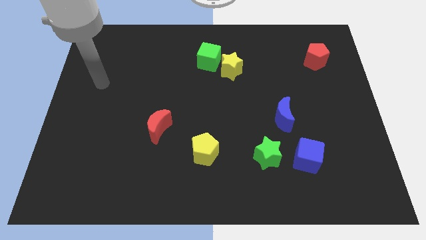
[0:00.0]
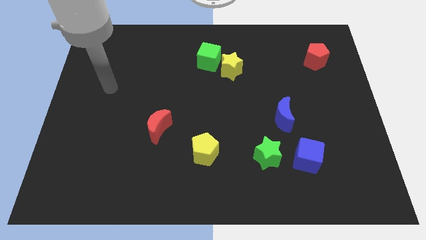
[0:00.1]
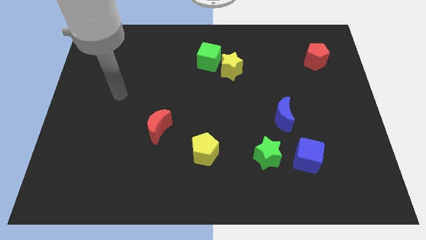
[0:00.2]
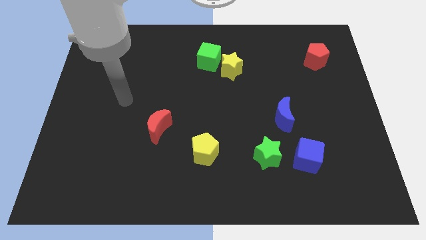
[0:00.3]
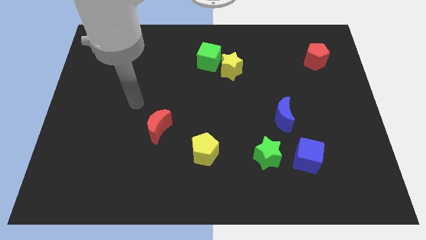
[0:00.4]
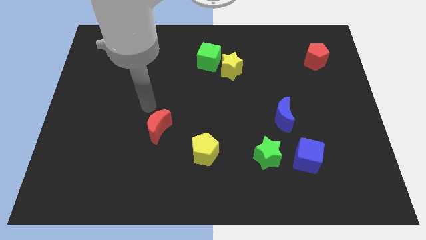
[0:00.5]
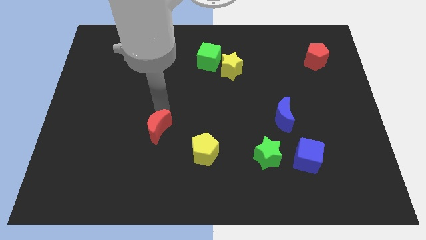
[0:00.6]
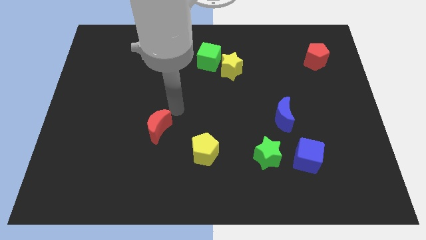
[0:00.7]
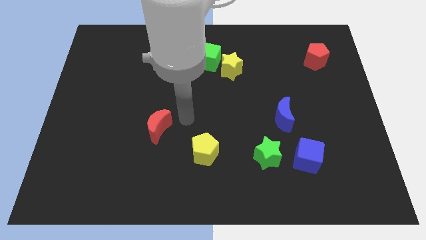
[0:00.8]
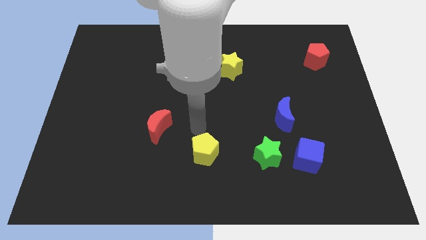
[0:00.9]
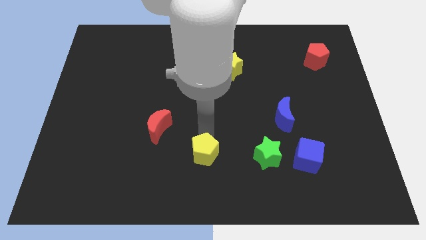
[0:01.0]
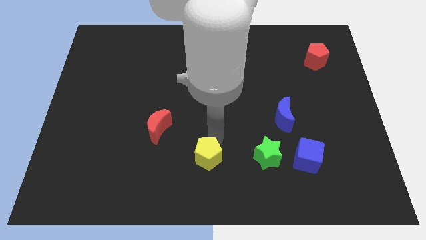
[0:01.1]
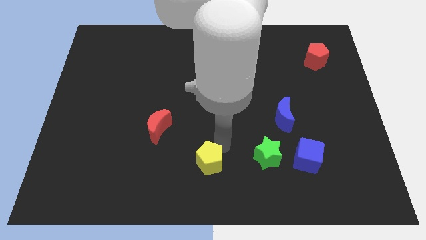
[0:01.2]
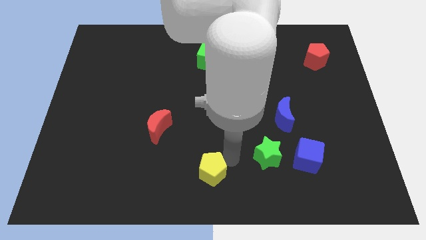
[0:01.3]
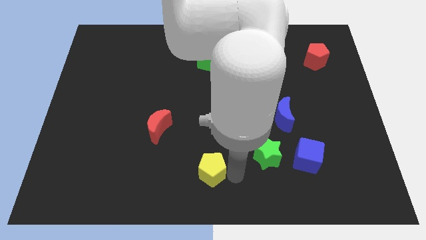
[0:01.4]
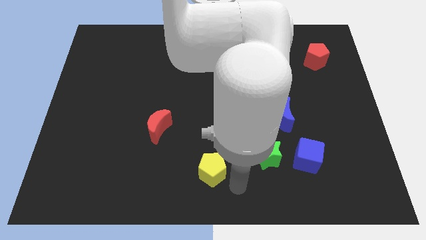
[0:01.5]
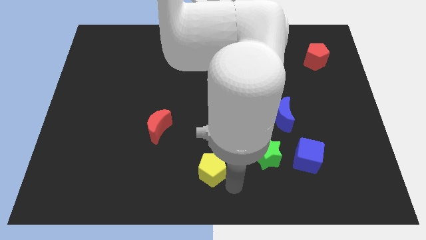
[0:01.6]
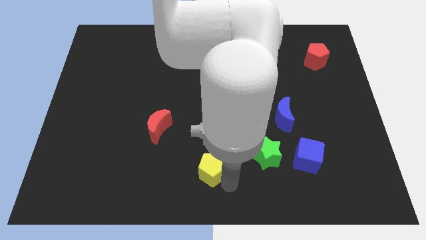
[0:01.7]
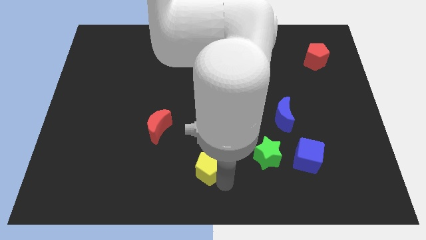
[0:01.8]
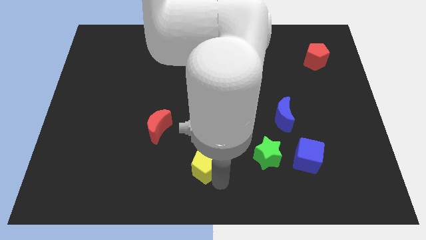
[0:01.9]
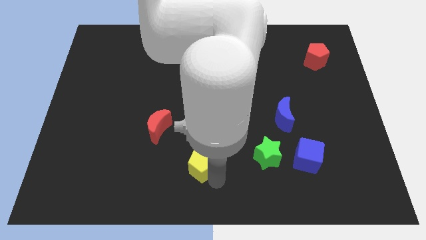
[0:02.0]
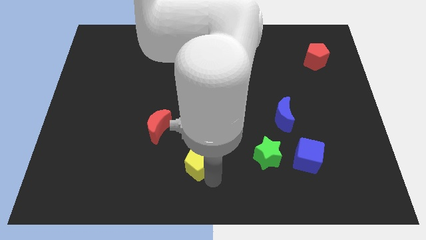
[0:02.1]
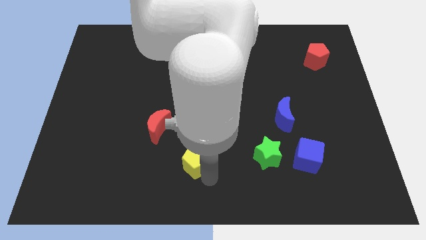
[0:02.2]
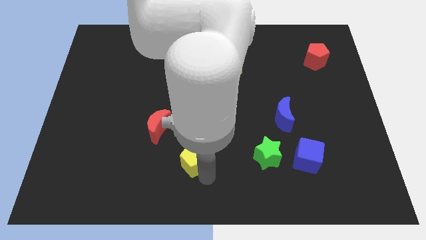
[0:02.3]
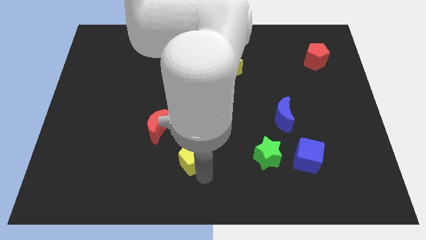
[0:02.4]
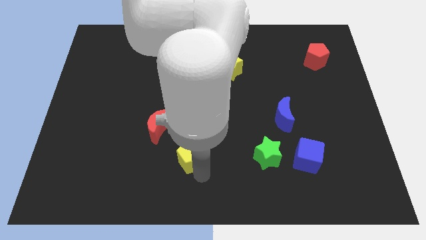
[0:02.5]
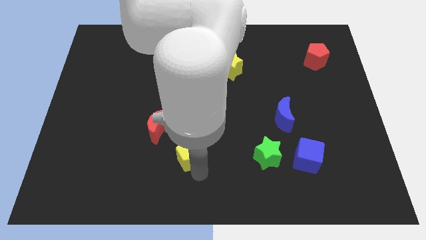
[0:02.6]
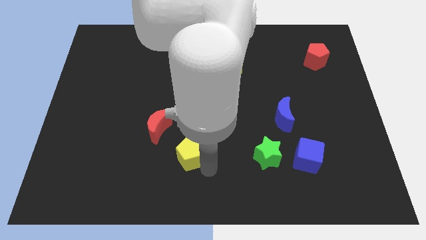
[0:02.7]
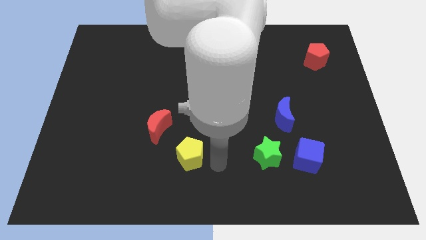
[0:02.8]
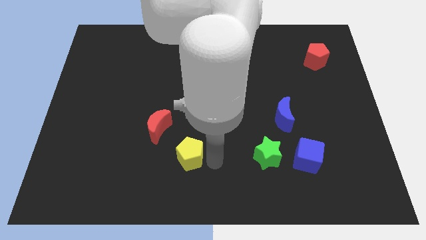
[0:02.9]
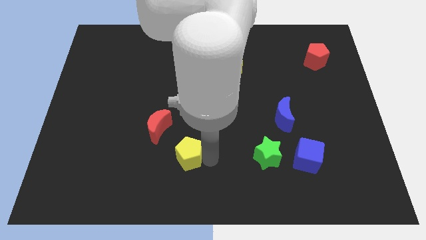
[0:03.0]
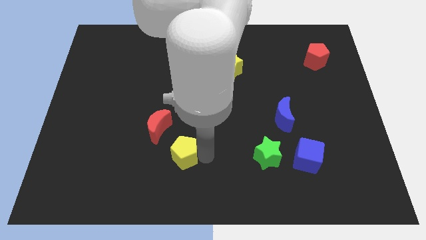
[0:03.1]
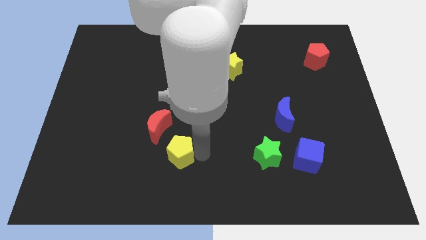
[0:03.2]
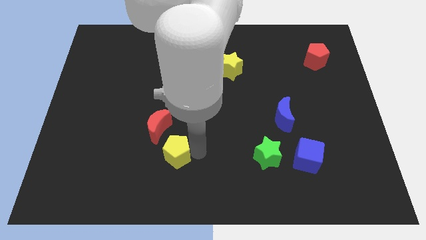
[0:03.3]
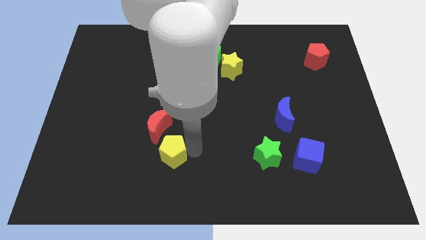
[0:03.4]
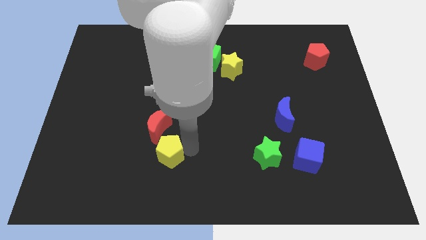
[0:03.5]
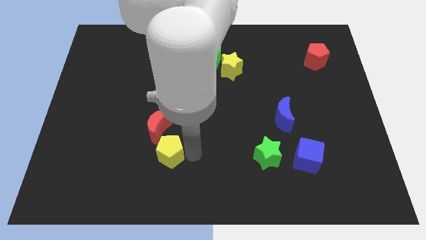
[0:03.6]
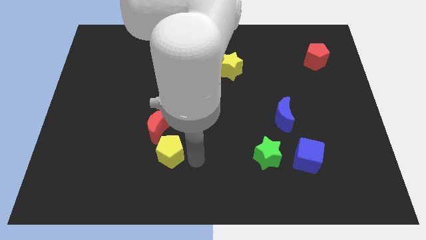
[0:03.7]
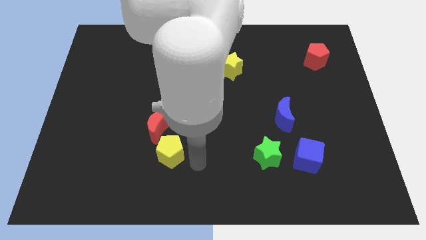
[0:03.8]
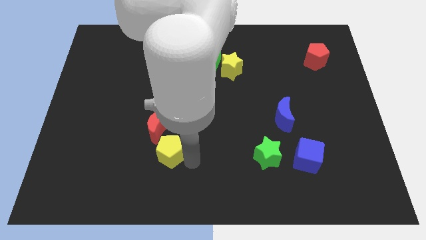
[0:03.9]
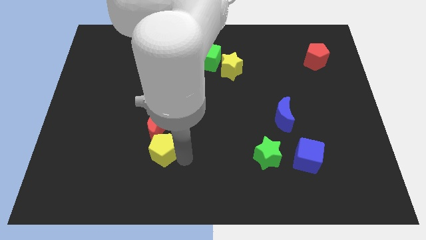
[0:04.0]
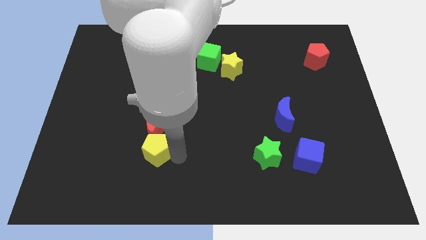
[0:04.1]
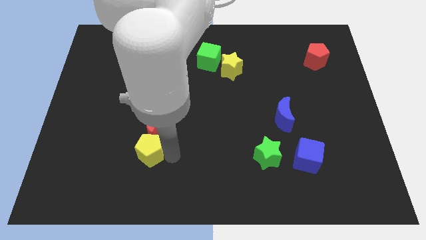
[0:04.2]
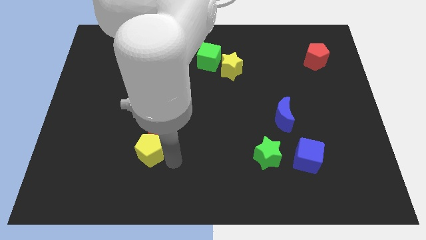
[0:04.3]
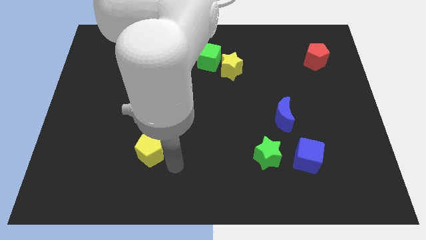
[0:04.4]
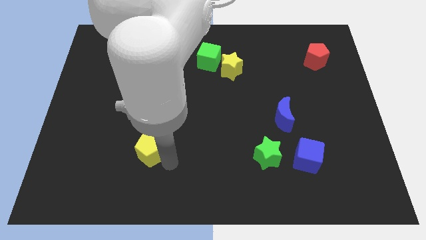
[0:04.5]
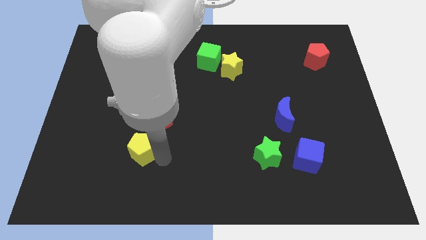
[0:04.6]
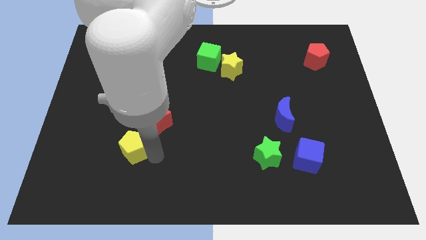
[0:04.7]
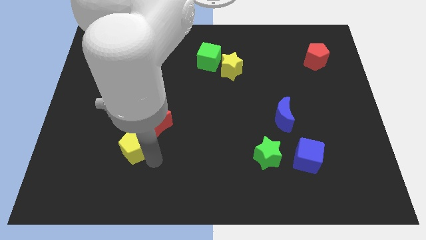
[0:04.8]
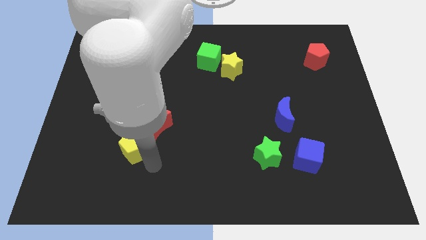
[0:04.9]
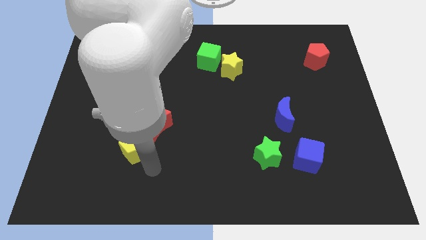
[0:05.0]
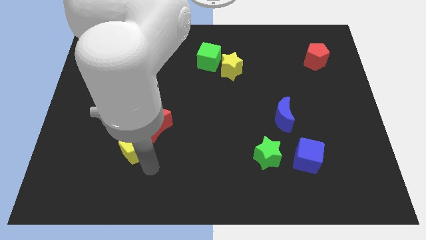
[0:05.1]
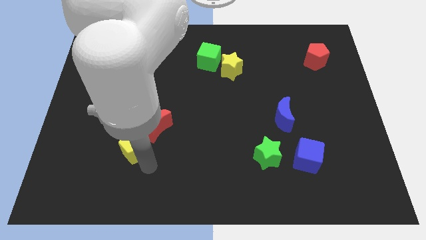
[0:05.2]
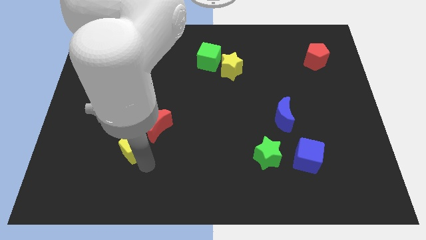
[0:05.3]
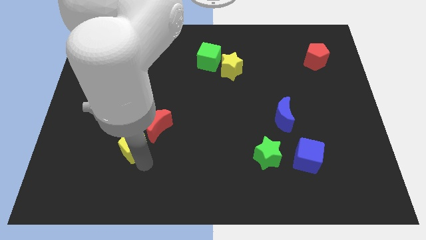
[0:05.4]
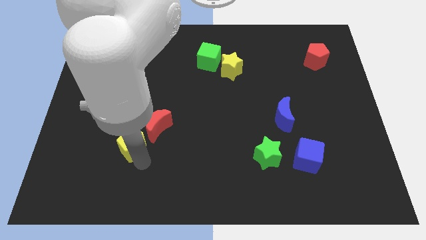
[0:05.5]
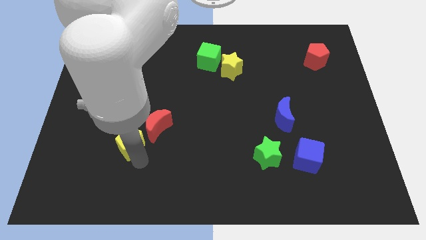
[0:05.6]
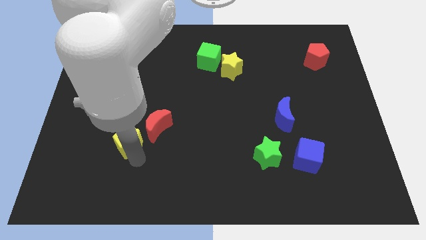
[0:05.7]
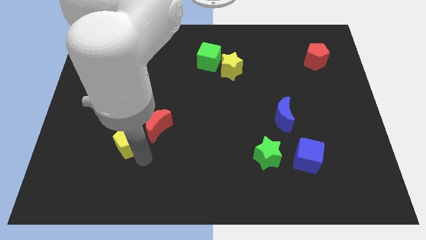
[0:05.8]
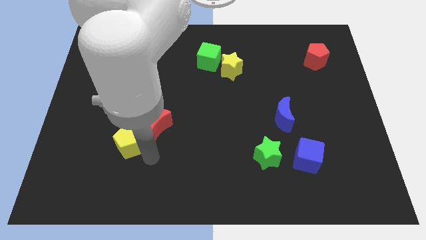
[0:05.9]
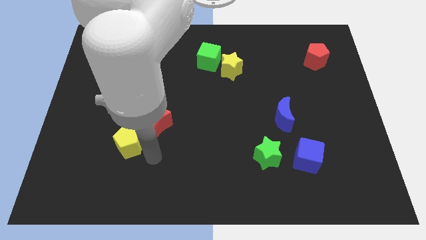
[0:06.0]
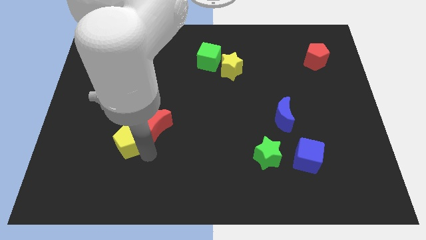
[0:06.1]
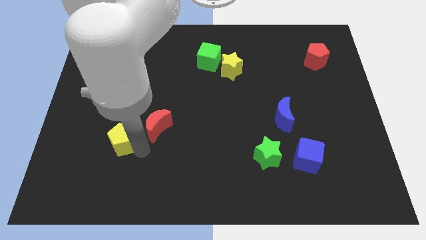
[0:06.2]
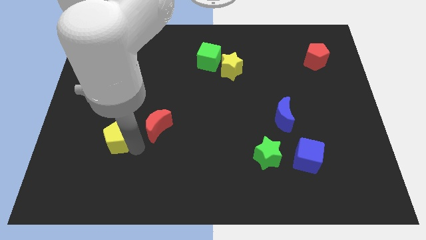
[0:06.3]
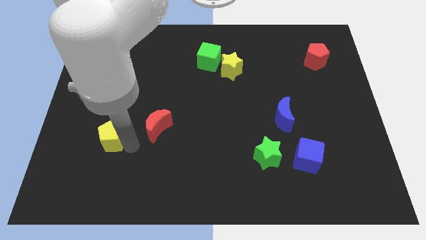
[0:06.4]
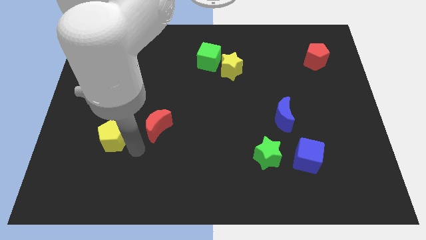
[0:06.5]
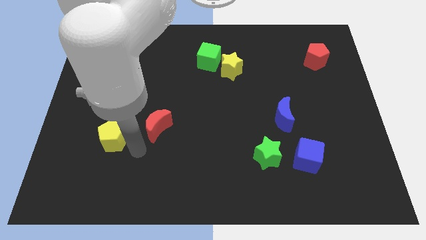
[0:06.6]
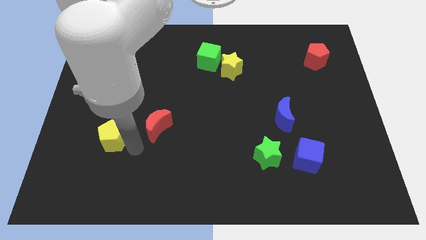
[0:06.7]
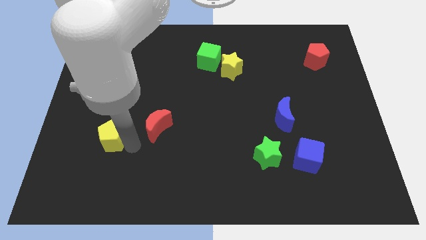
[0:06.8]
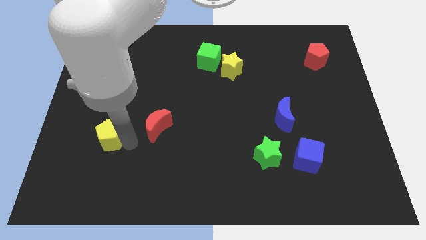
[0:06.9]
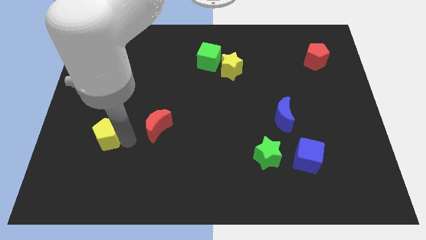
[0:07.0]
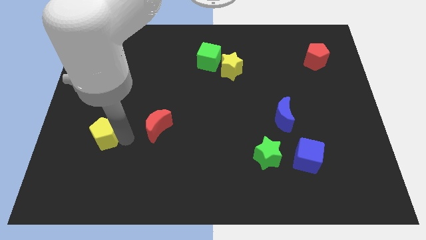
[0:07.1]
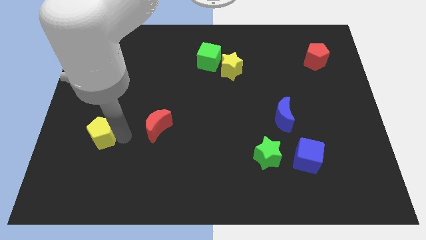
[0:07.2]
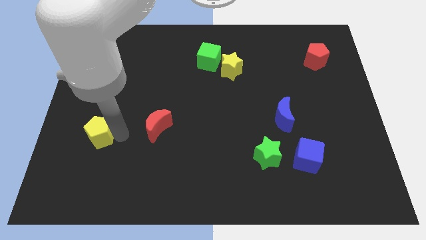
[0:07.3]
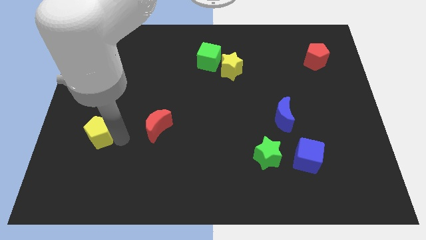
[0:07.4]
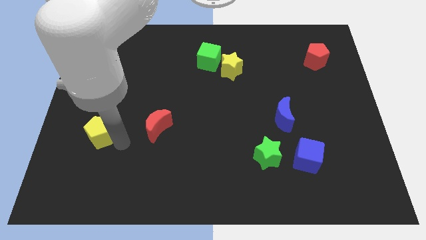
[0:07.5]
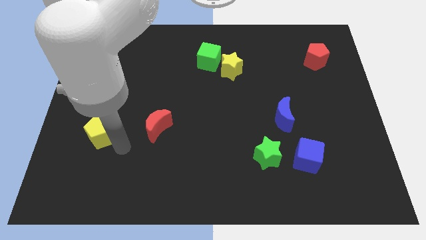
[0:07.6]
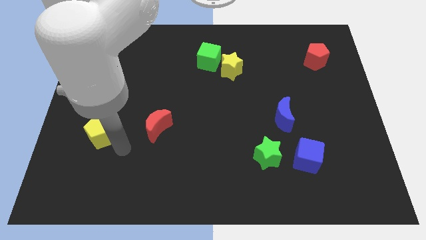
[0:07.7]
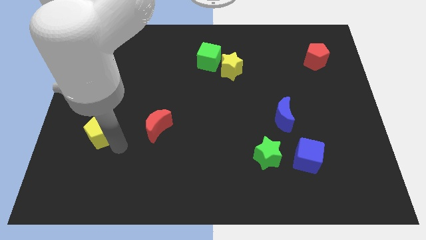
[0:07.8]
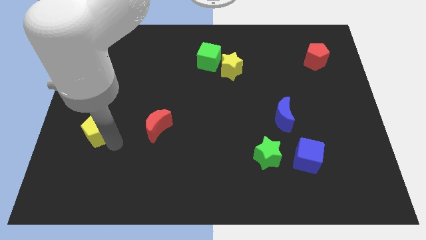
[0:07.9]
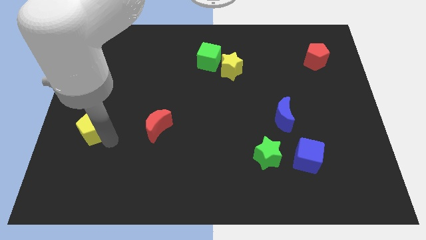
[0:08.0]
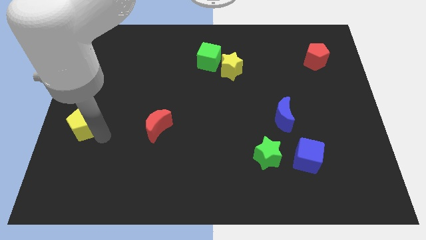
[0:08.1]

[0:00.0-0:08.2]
push the yellow pentagon to the left side of the board
